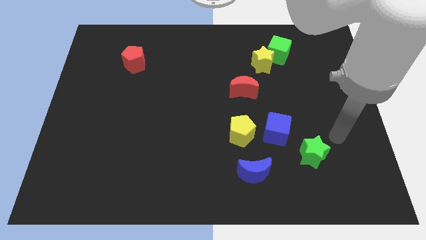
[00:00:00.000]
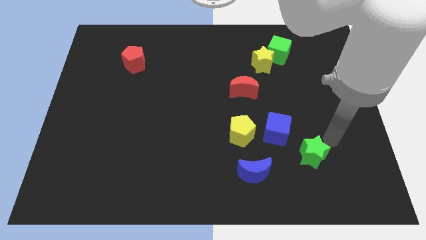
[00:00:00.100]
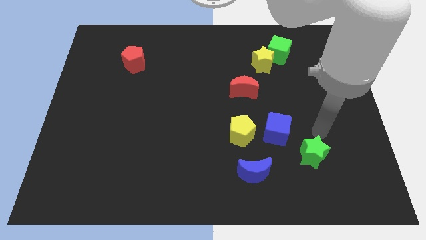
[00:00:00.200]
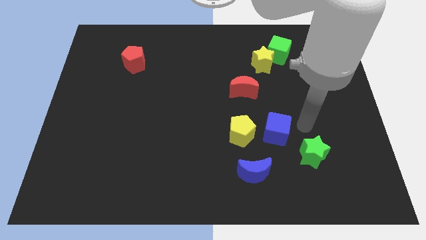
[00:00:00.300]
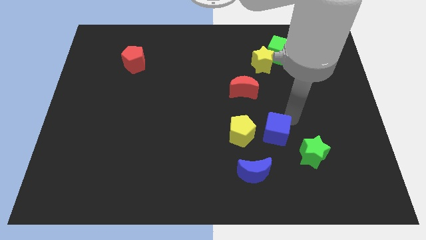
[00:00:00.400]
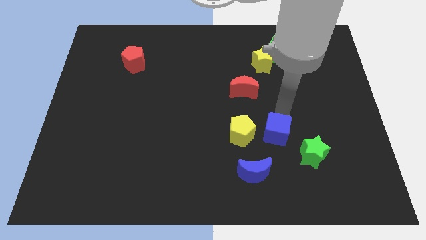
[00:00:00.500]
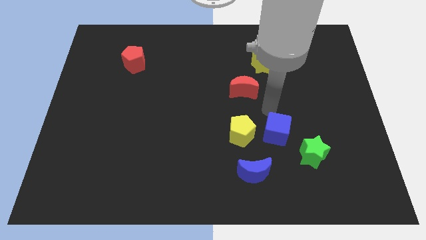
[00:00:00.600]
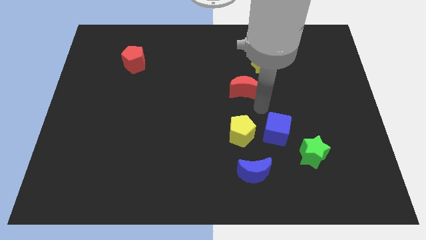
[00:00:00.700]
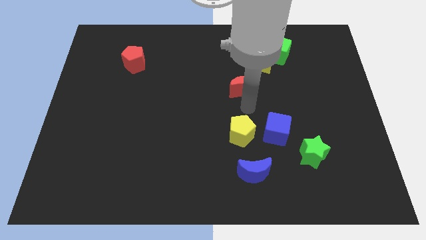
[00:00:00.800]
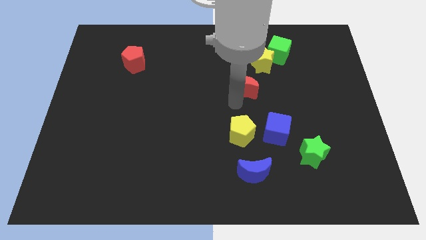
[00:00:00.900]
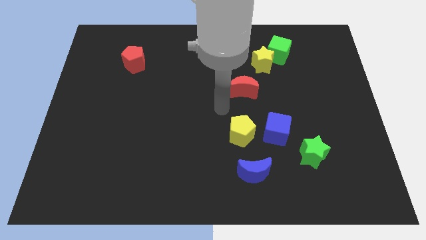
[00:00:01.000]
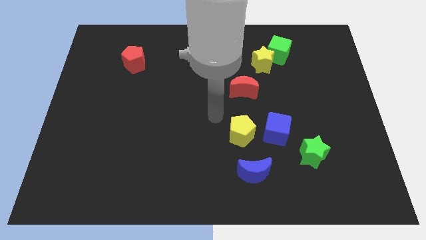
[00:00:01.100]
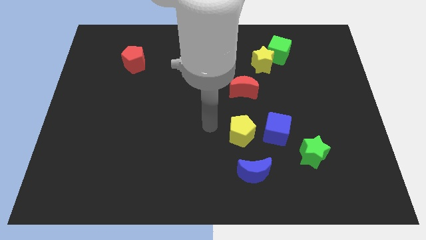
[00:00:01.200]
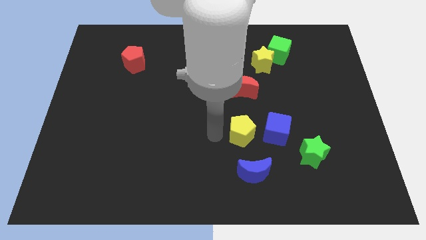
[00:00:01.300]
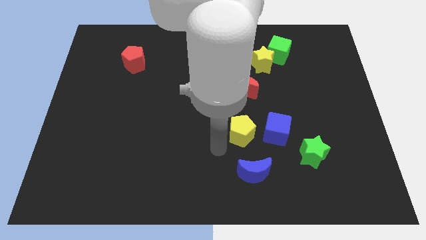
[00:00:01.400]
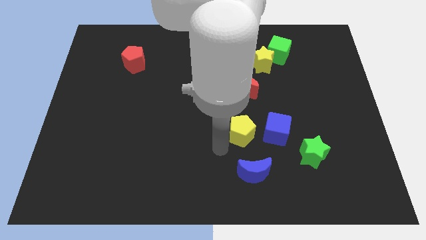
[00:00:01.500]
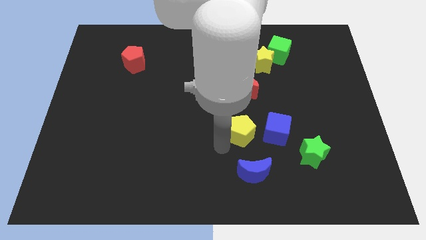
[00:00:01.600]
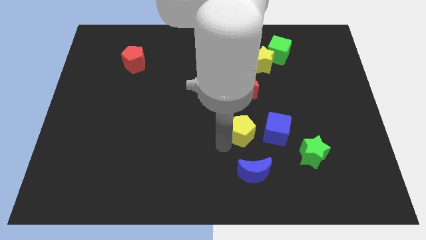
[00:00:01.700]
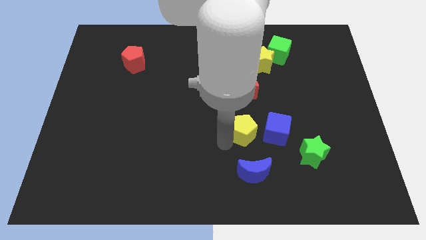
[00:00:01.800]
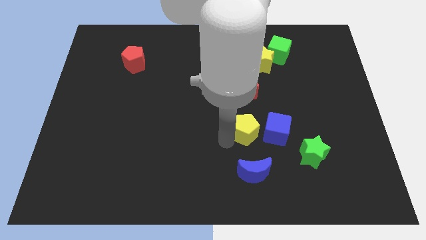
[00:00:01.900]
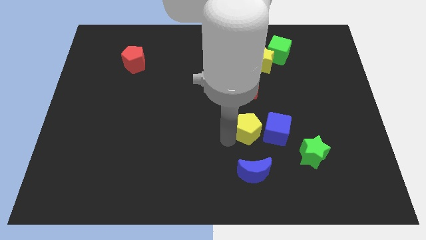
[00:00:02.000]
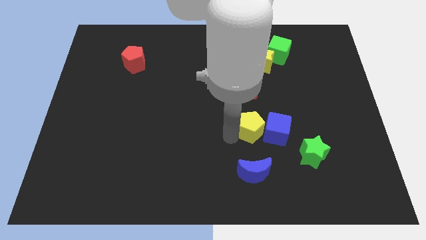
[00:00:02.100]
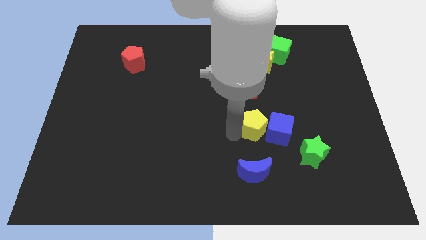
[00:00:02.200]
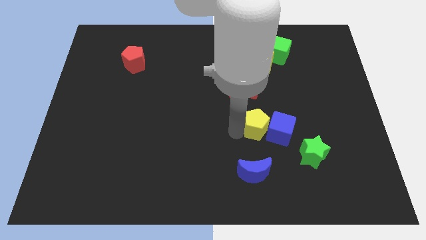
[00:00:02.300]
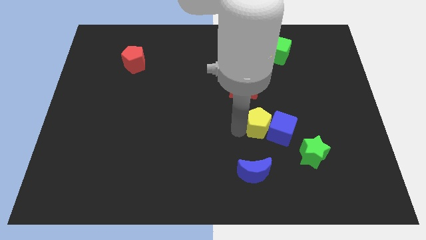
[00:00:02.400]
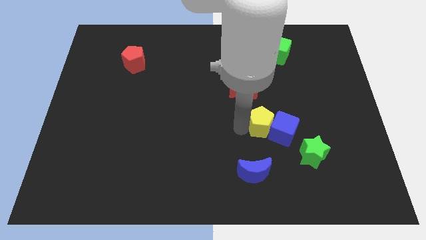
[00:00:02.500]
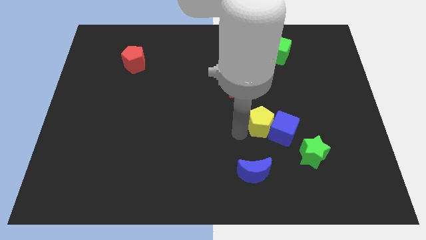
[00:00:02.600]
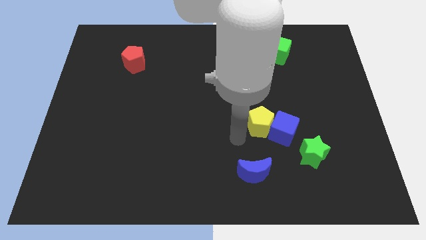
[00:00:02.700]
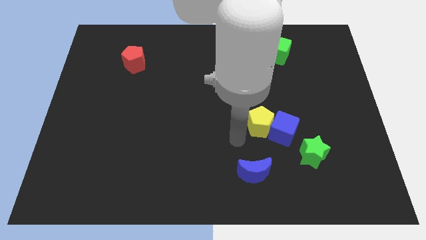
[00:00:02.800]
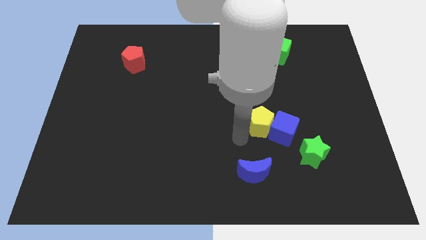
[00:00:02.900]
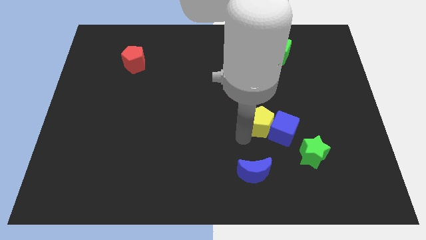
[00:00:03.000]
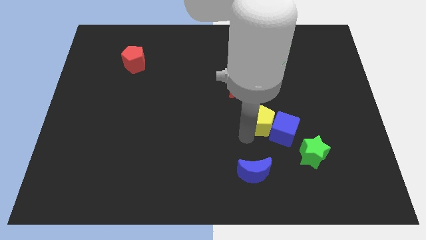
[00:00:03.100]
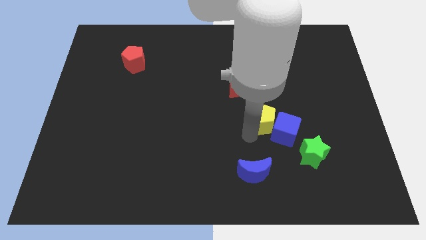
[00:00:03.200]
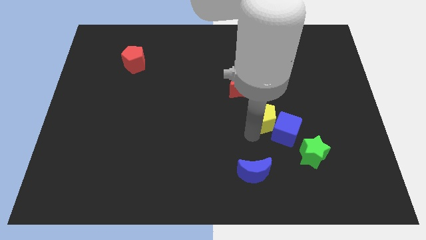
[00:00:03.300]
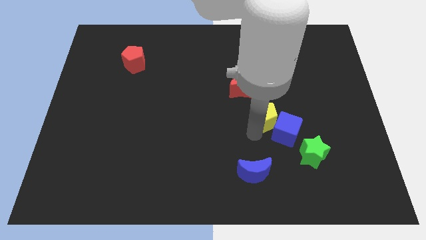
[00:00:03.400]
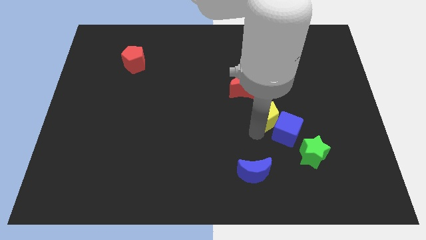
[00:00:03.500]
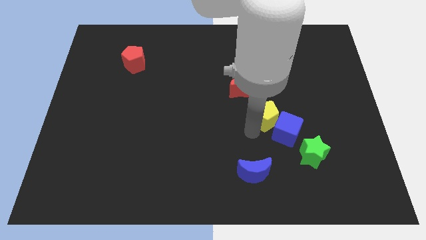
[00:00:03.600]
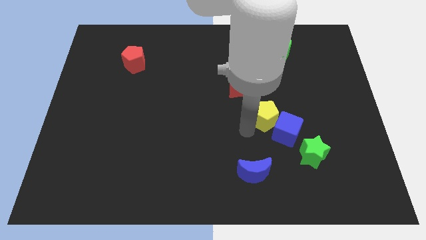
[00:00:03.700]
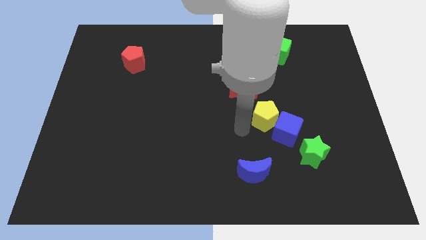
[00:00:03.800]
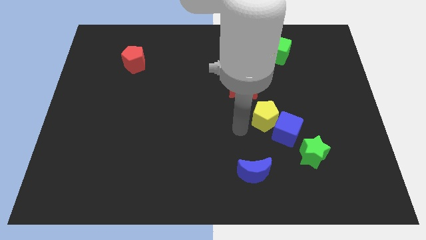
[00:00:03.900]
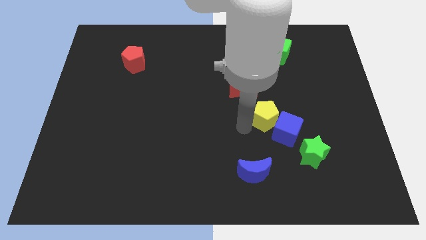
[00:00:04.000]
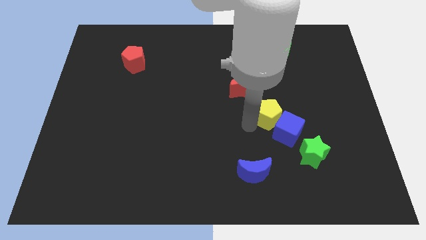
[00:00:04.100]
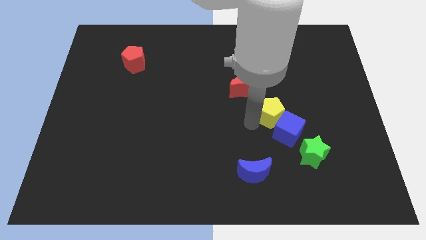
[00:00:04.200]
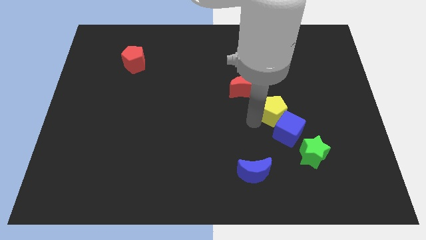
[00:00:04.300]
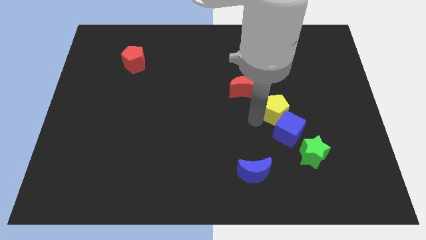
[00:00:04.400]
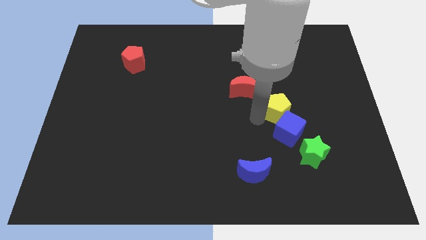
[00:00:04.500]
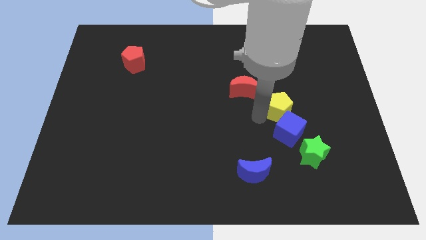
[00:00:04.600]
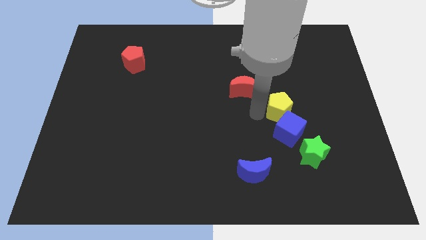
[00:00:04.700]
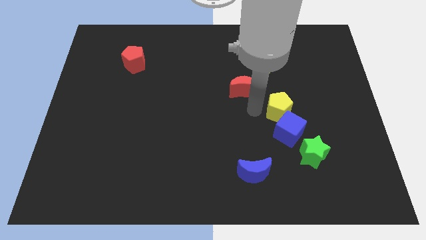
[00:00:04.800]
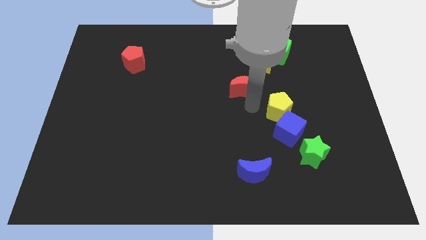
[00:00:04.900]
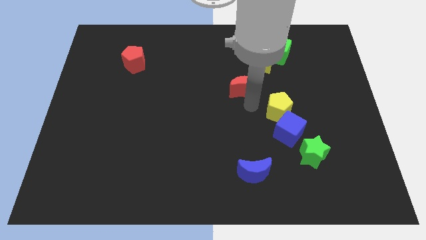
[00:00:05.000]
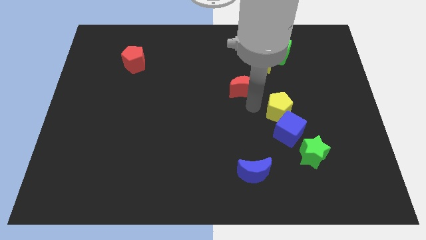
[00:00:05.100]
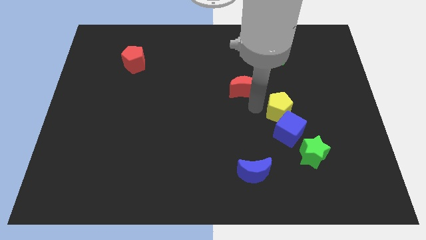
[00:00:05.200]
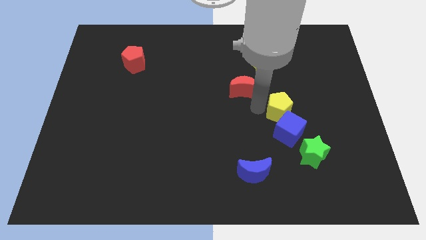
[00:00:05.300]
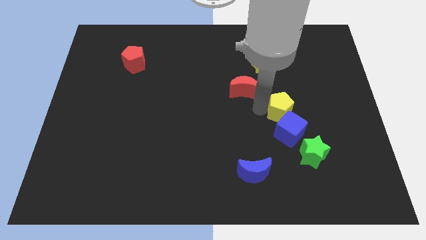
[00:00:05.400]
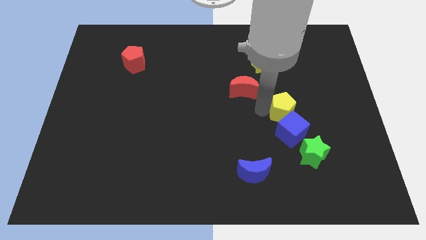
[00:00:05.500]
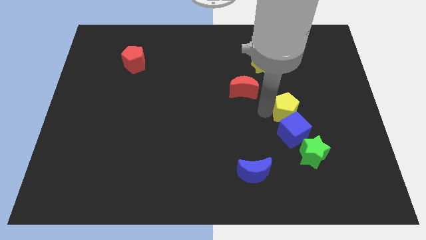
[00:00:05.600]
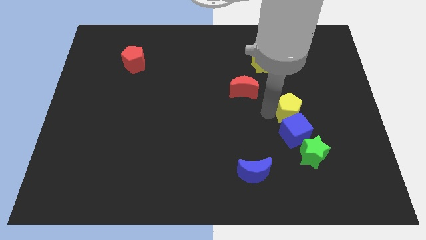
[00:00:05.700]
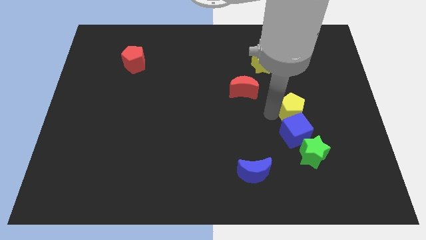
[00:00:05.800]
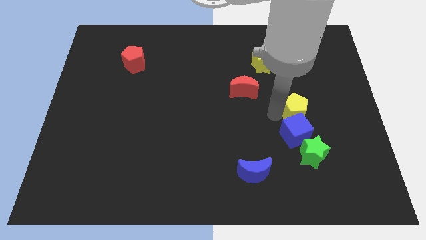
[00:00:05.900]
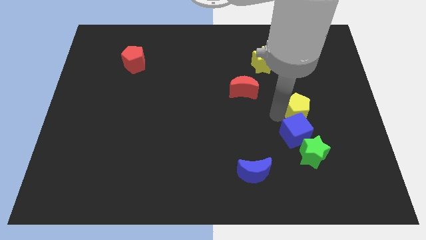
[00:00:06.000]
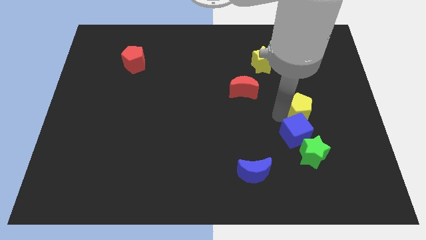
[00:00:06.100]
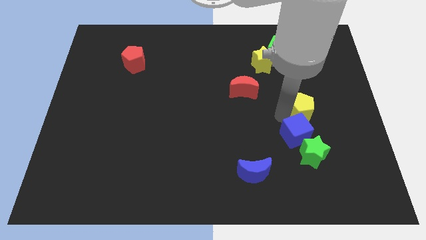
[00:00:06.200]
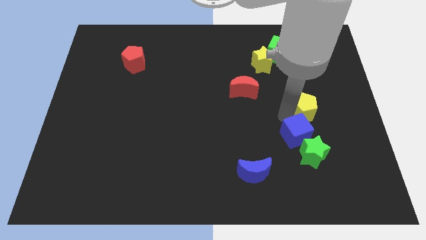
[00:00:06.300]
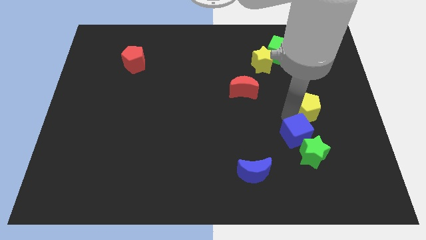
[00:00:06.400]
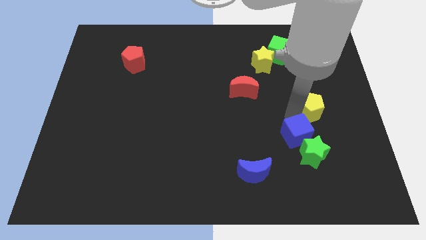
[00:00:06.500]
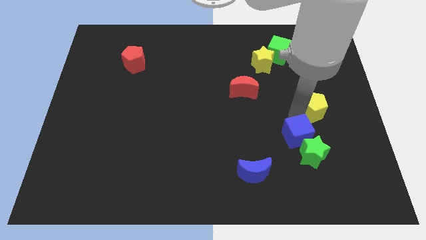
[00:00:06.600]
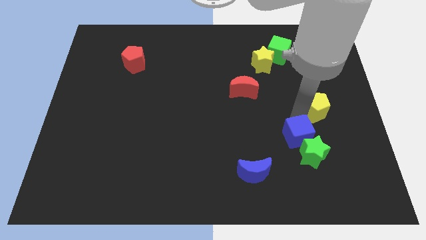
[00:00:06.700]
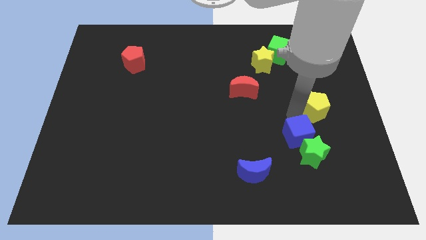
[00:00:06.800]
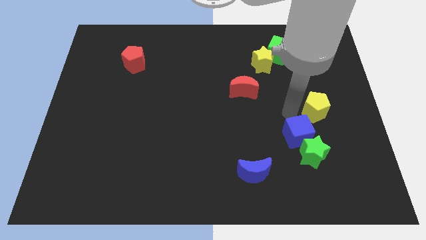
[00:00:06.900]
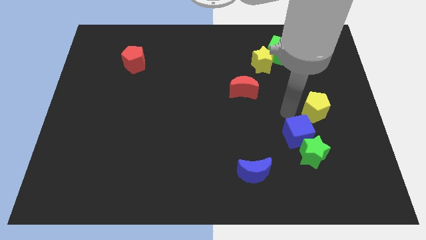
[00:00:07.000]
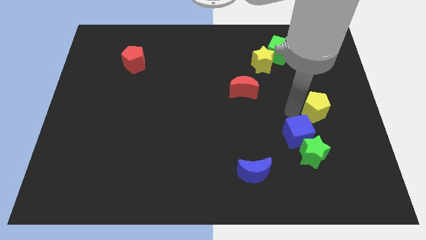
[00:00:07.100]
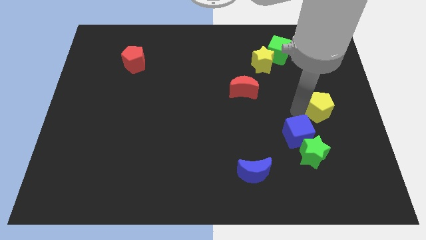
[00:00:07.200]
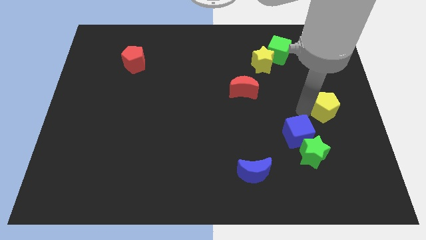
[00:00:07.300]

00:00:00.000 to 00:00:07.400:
slide the yellow pentagon to the center right
